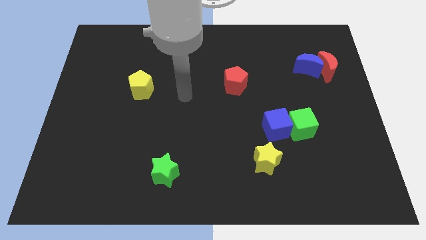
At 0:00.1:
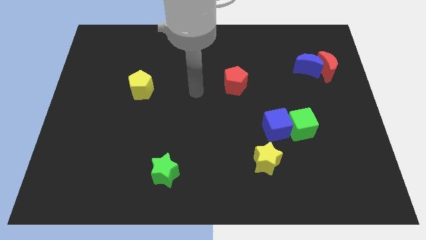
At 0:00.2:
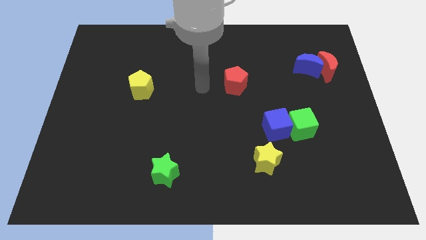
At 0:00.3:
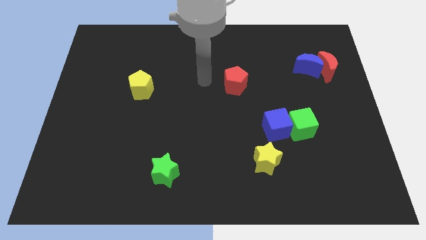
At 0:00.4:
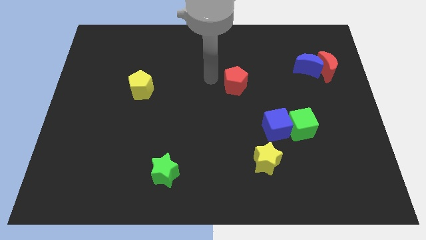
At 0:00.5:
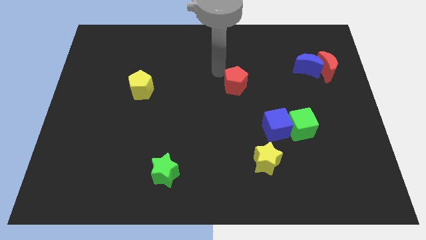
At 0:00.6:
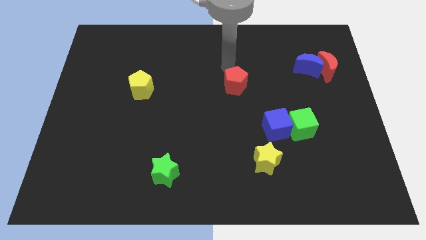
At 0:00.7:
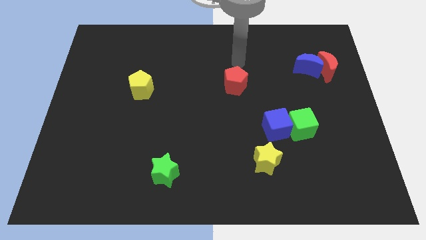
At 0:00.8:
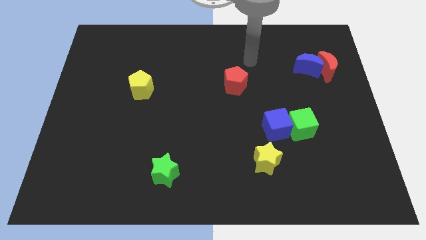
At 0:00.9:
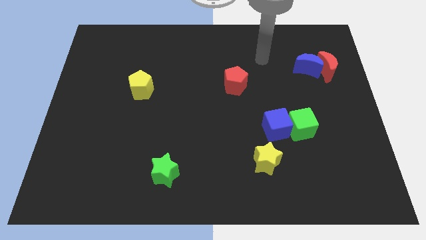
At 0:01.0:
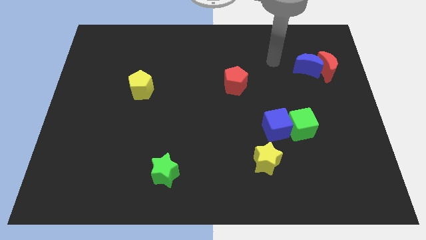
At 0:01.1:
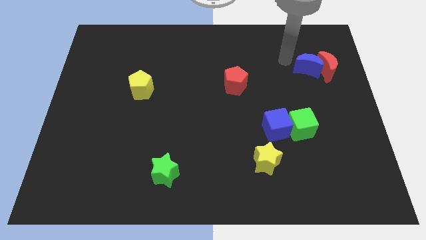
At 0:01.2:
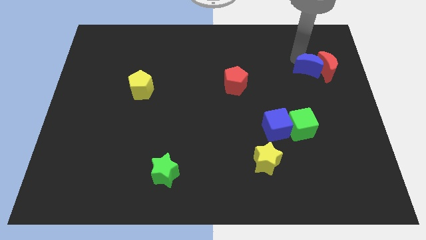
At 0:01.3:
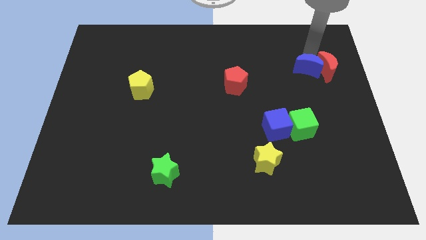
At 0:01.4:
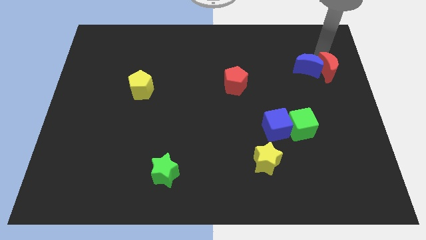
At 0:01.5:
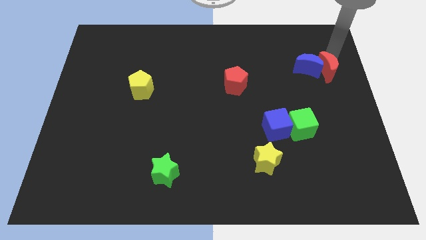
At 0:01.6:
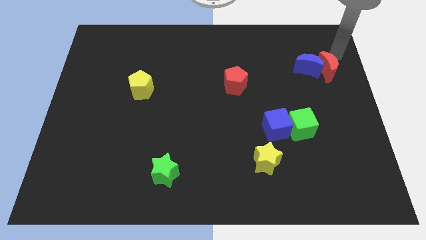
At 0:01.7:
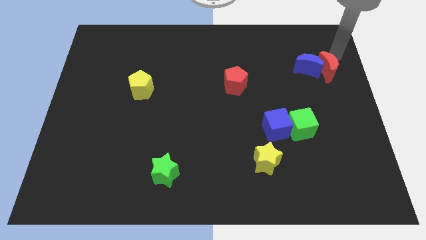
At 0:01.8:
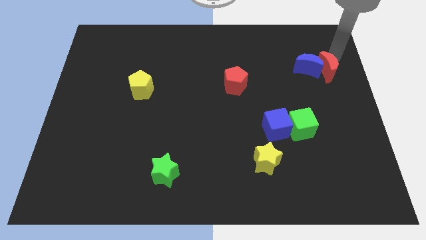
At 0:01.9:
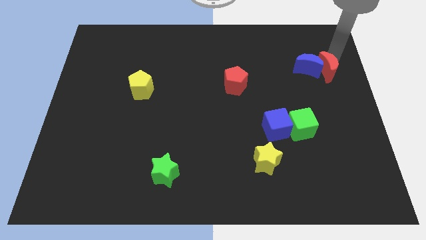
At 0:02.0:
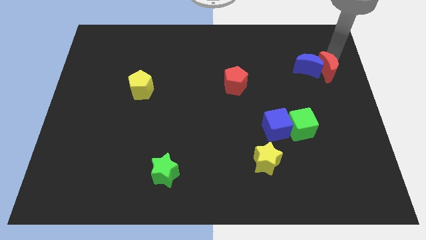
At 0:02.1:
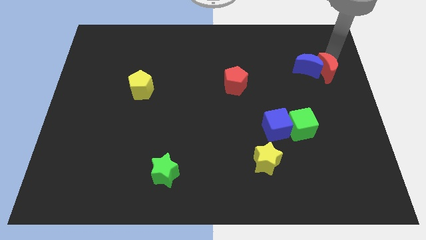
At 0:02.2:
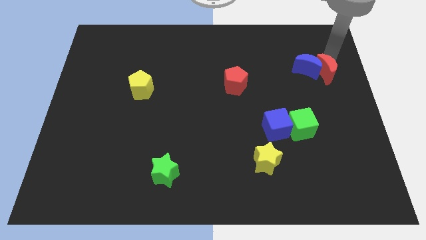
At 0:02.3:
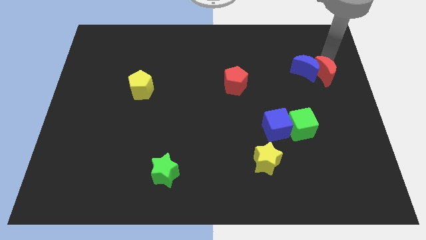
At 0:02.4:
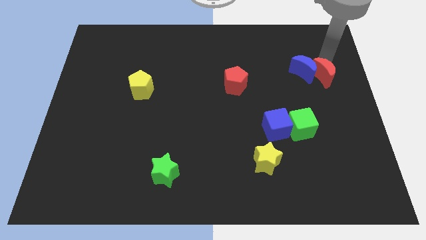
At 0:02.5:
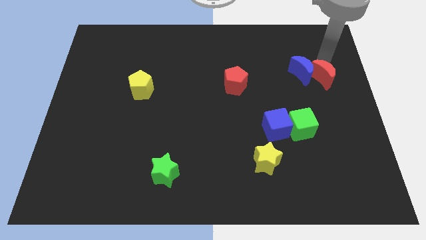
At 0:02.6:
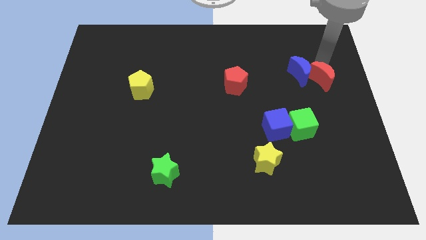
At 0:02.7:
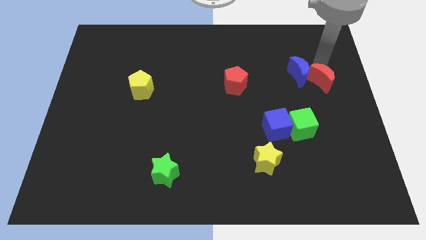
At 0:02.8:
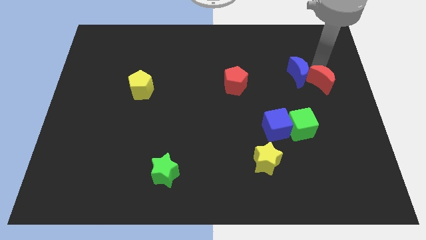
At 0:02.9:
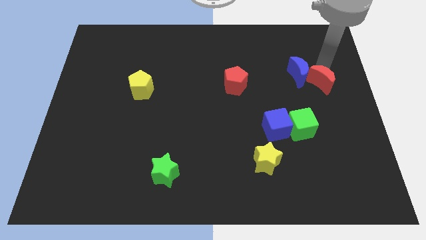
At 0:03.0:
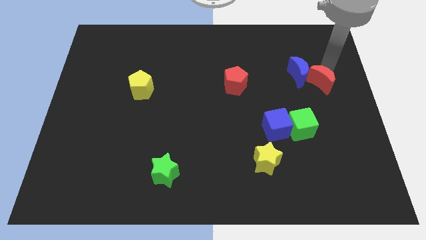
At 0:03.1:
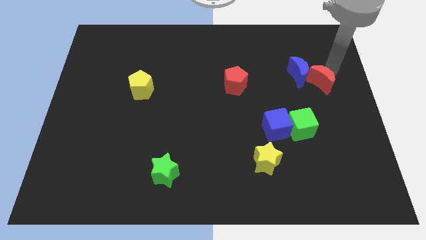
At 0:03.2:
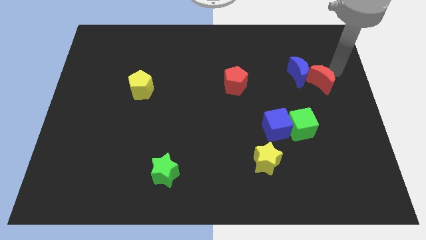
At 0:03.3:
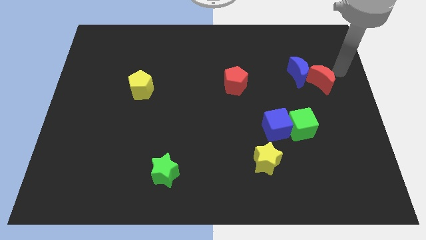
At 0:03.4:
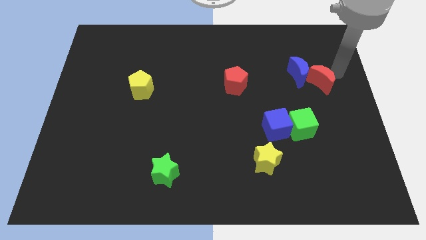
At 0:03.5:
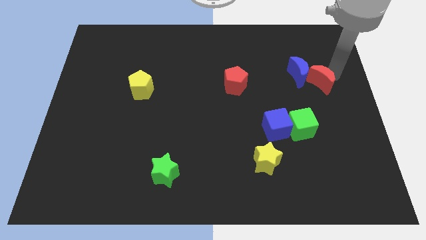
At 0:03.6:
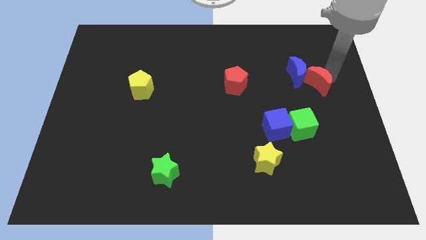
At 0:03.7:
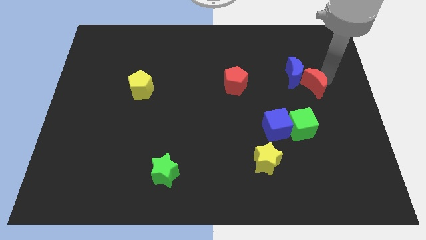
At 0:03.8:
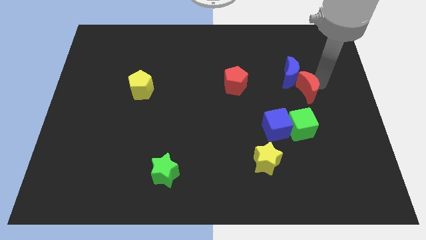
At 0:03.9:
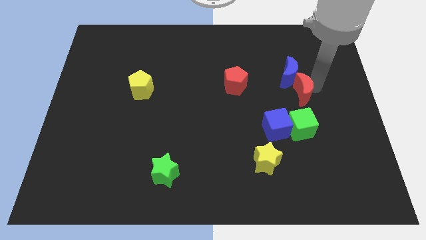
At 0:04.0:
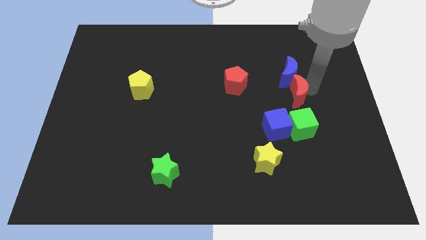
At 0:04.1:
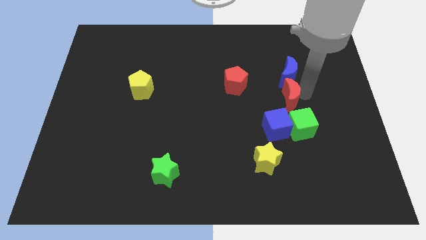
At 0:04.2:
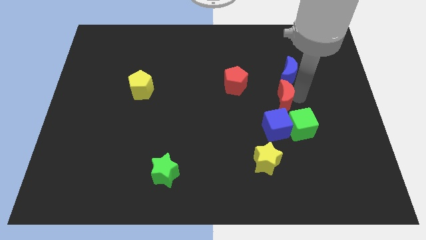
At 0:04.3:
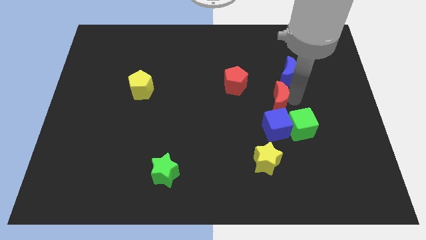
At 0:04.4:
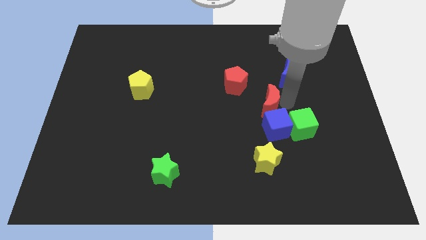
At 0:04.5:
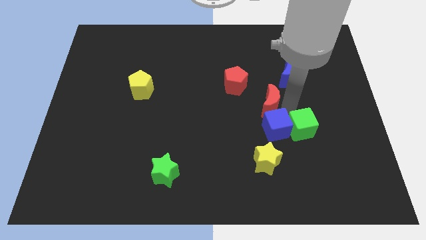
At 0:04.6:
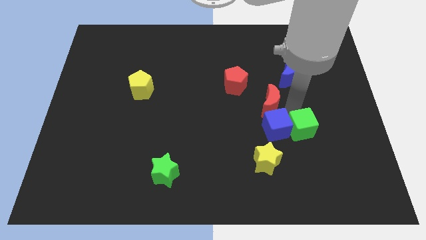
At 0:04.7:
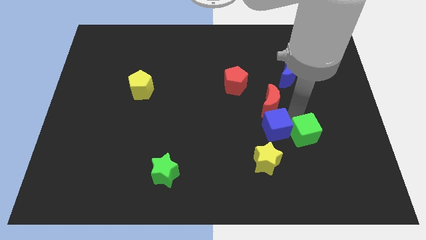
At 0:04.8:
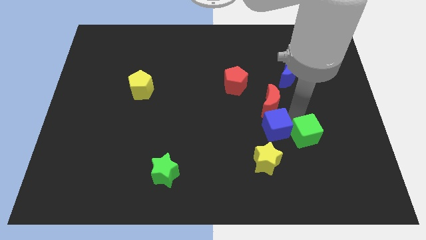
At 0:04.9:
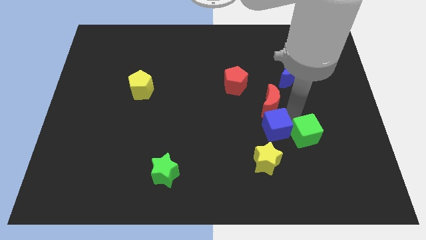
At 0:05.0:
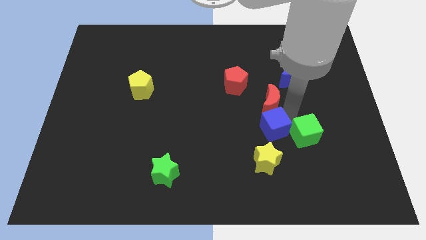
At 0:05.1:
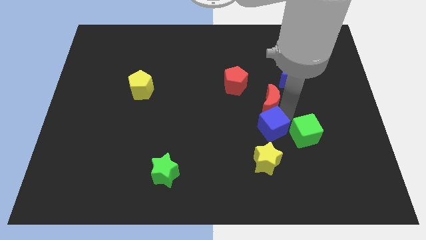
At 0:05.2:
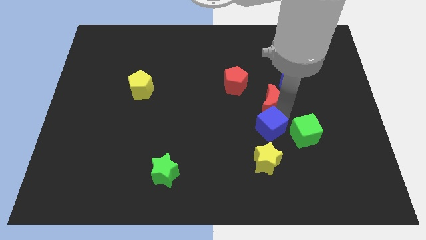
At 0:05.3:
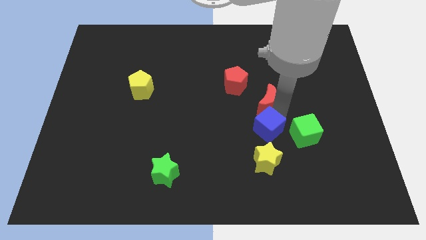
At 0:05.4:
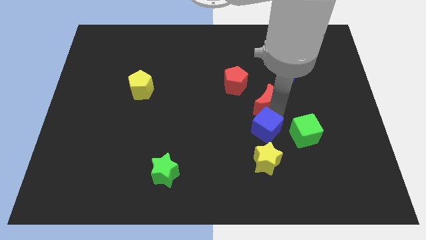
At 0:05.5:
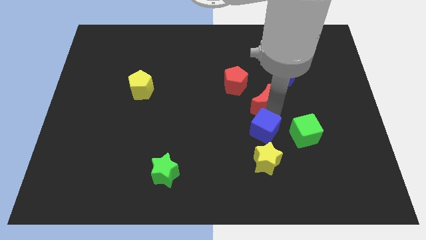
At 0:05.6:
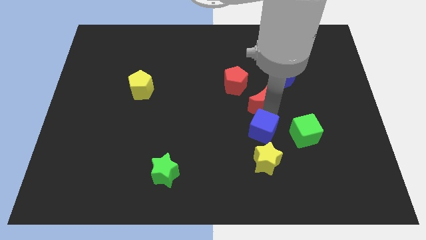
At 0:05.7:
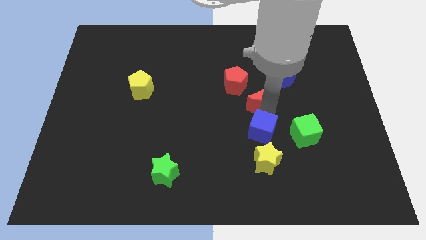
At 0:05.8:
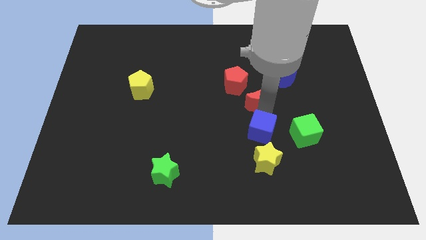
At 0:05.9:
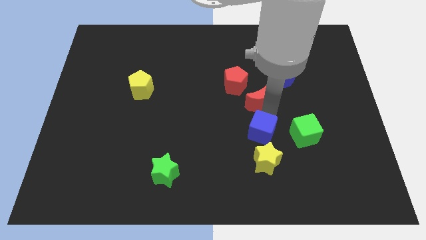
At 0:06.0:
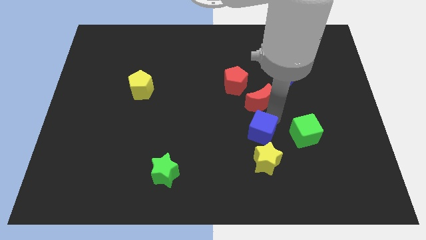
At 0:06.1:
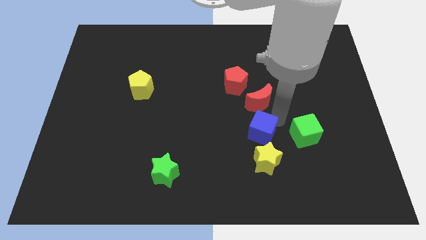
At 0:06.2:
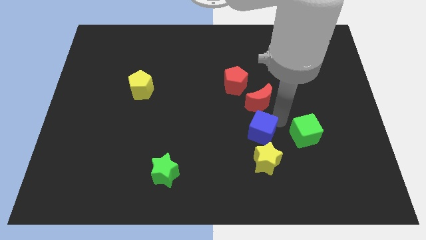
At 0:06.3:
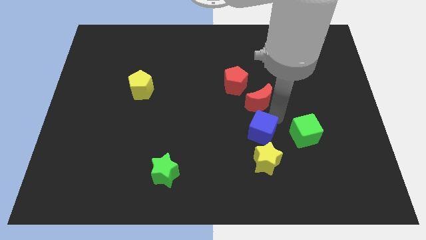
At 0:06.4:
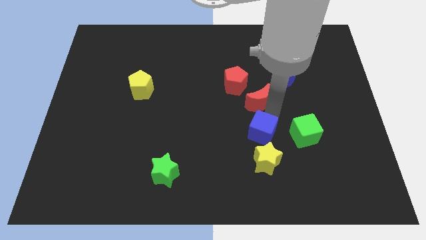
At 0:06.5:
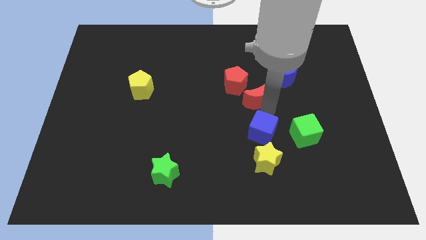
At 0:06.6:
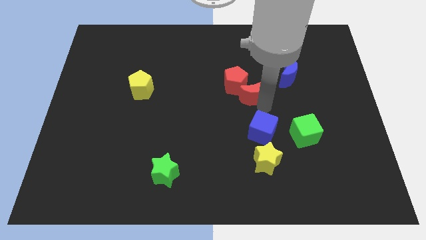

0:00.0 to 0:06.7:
push the red moon towards the red pentagon

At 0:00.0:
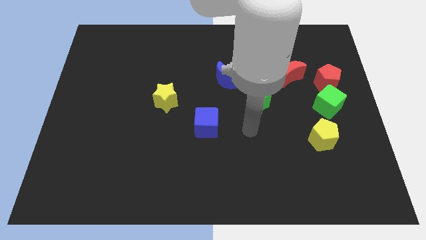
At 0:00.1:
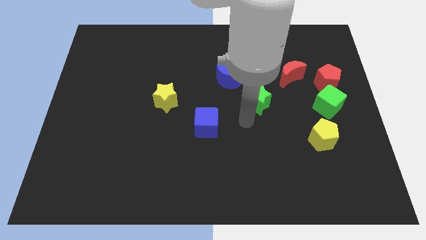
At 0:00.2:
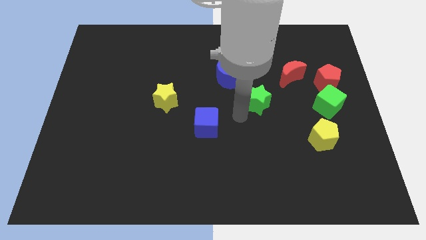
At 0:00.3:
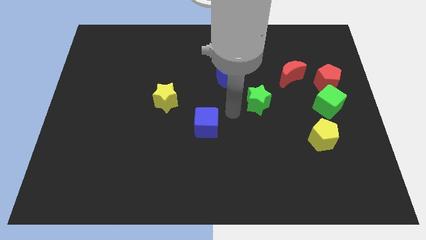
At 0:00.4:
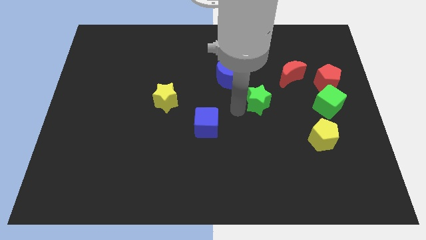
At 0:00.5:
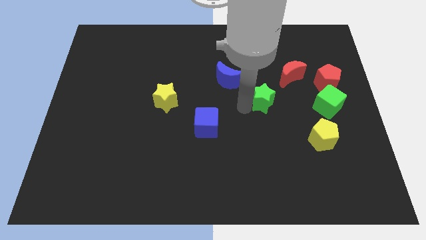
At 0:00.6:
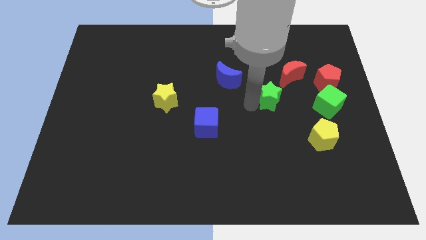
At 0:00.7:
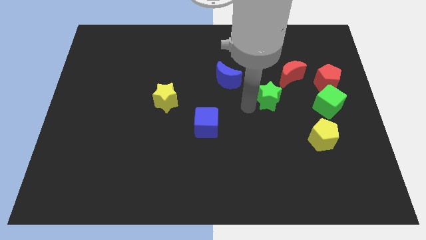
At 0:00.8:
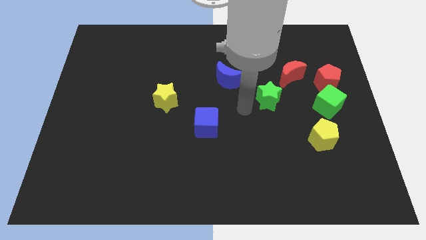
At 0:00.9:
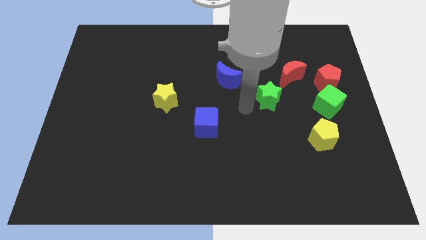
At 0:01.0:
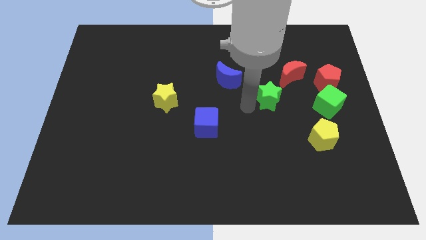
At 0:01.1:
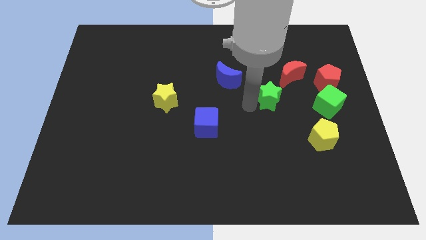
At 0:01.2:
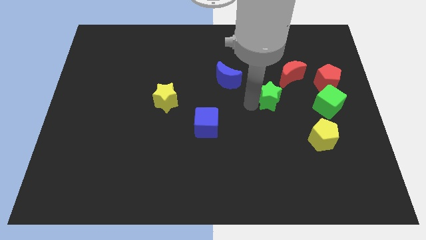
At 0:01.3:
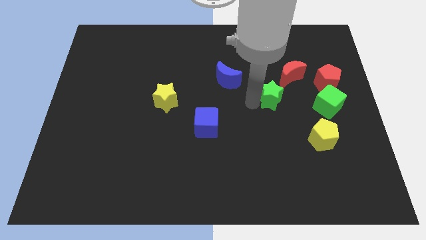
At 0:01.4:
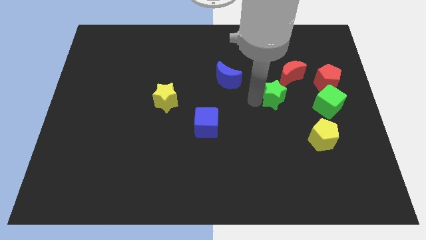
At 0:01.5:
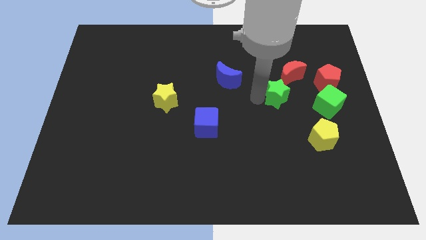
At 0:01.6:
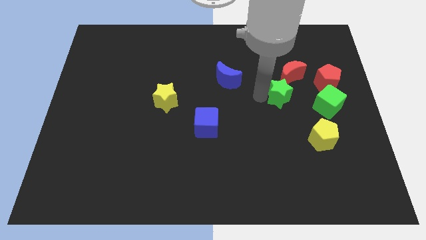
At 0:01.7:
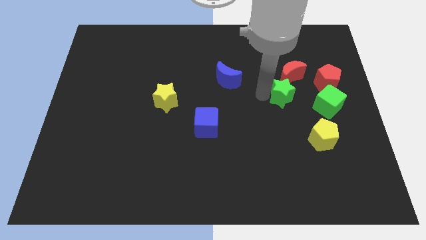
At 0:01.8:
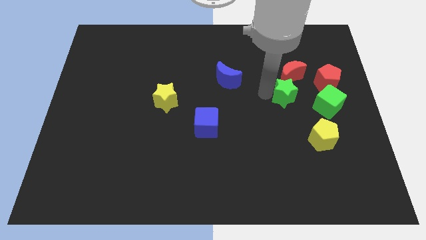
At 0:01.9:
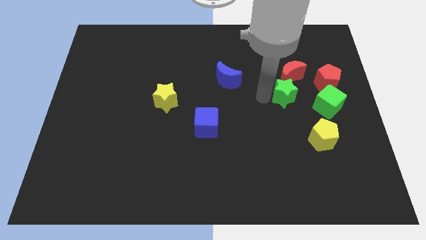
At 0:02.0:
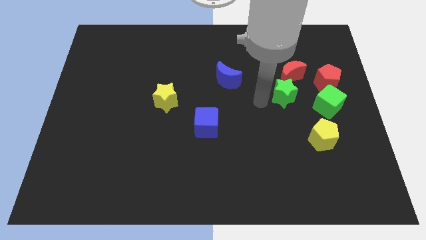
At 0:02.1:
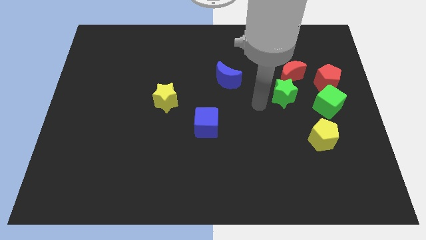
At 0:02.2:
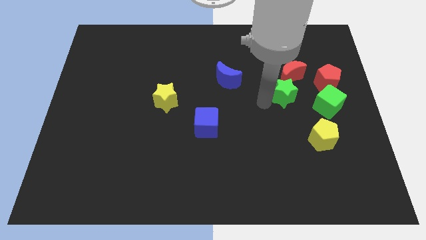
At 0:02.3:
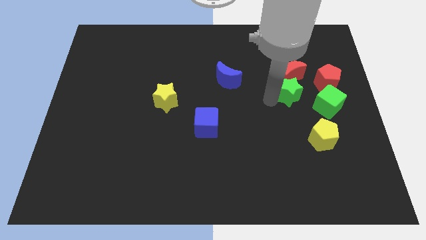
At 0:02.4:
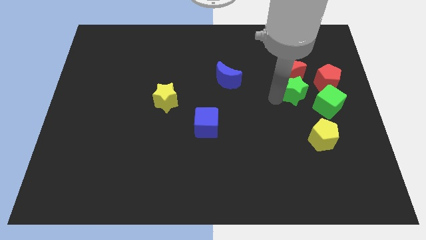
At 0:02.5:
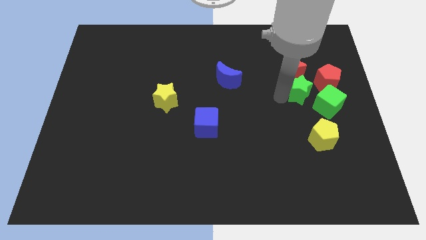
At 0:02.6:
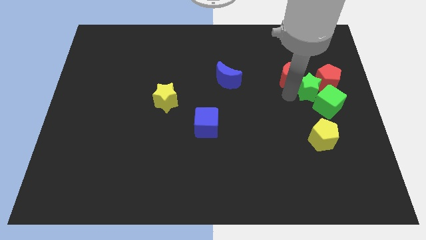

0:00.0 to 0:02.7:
push the green star towards the red pentagon
